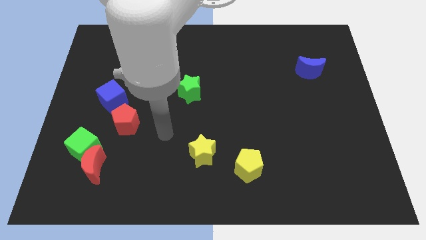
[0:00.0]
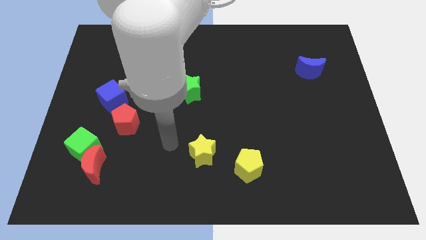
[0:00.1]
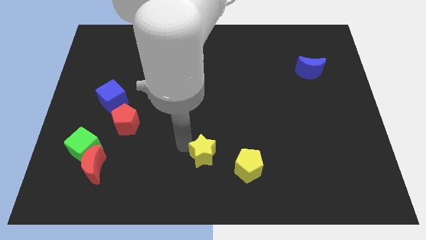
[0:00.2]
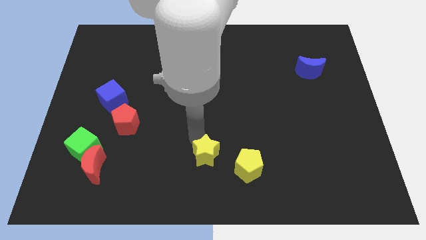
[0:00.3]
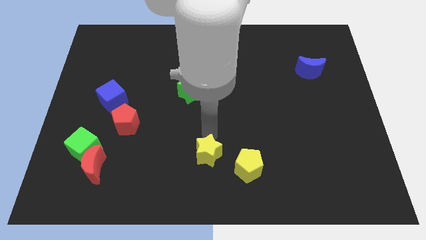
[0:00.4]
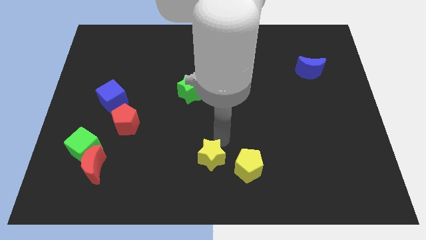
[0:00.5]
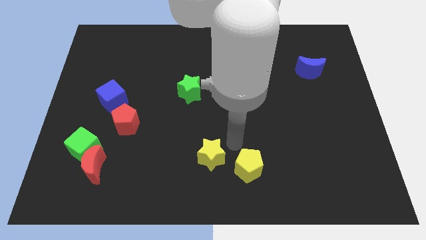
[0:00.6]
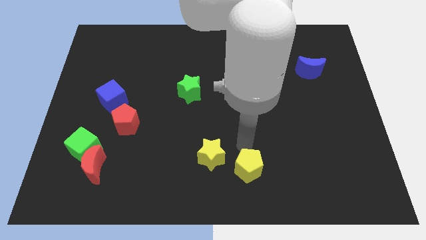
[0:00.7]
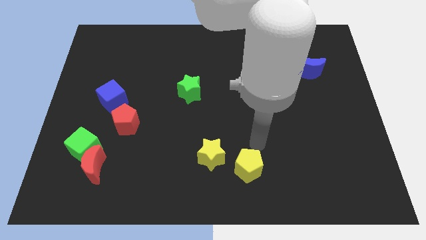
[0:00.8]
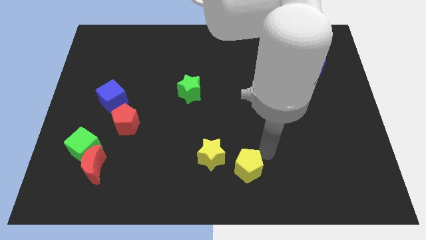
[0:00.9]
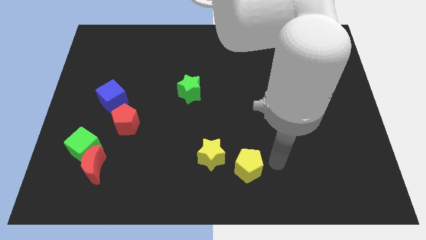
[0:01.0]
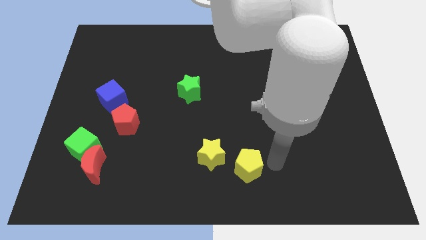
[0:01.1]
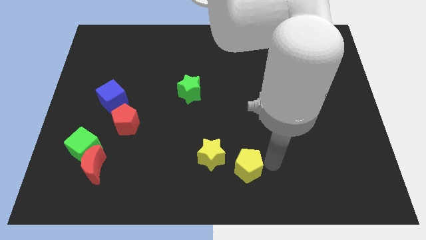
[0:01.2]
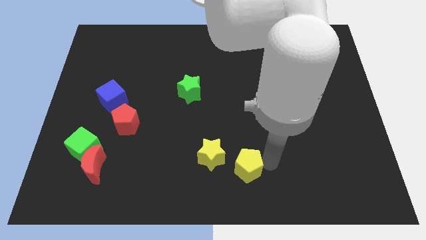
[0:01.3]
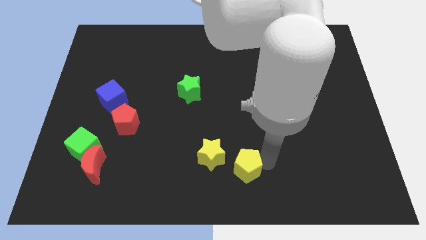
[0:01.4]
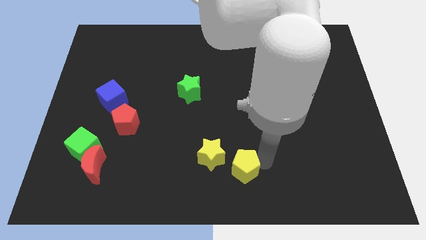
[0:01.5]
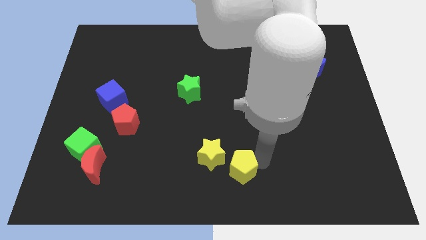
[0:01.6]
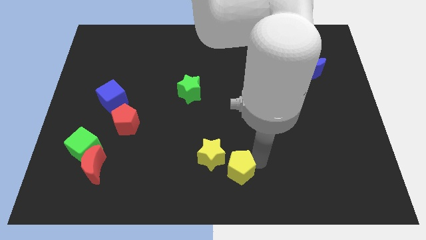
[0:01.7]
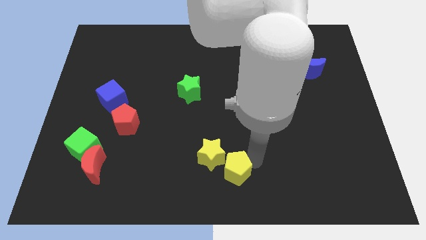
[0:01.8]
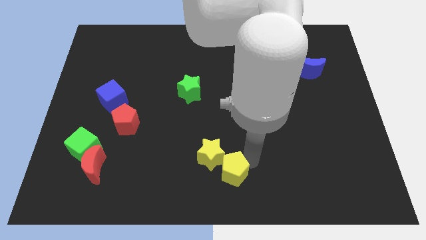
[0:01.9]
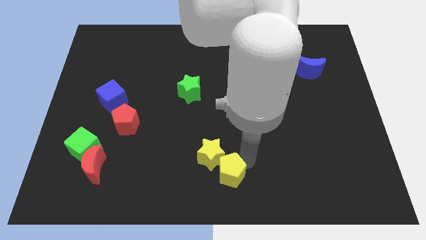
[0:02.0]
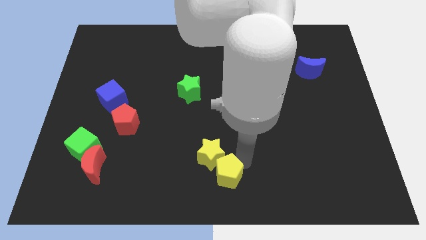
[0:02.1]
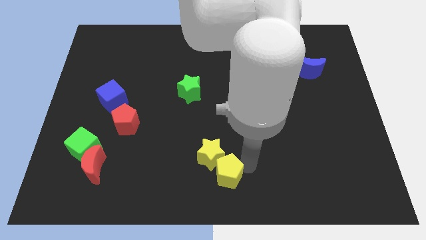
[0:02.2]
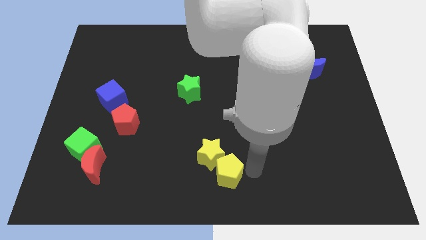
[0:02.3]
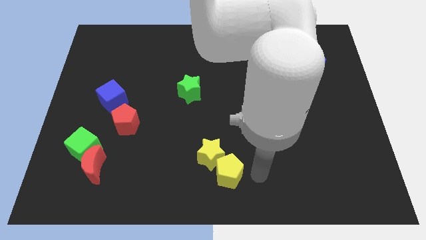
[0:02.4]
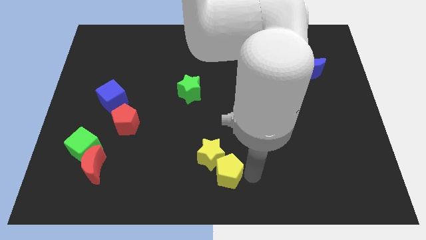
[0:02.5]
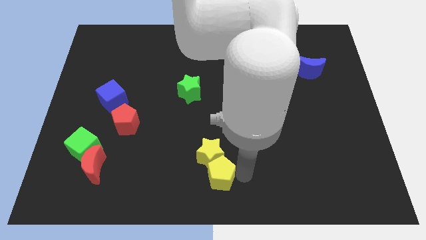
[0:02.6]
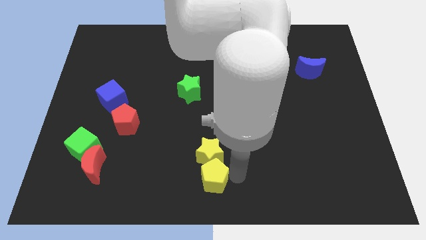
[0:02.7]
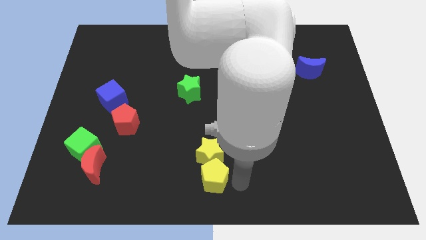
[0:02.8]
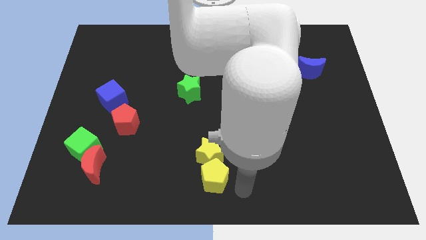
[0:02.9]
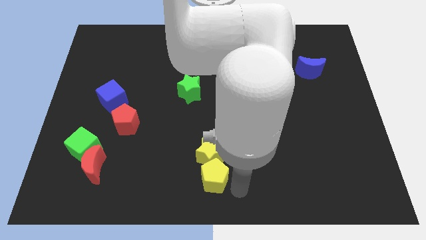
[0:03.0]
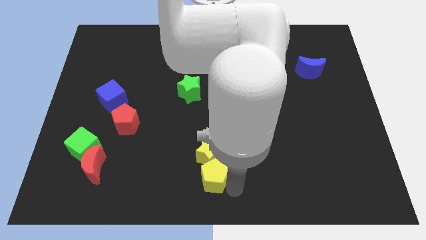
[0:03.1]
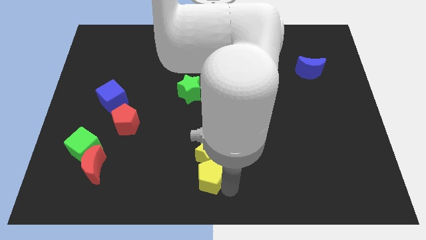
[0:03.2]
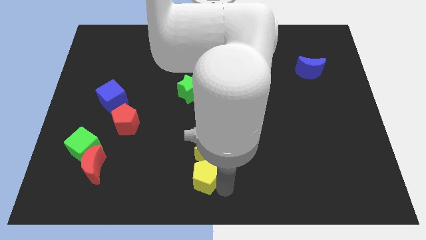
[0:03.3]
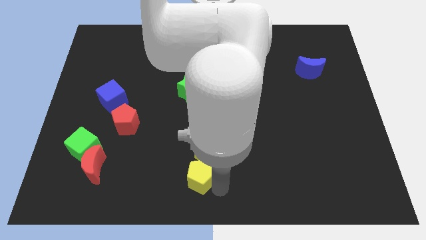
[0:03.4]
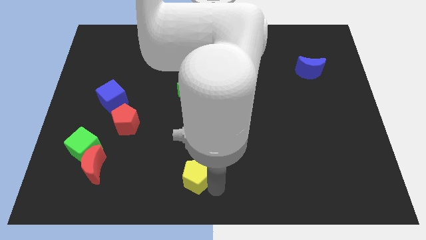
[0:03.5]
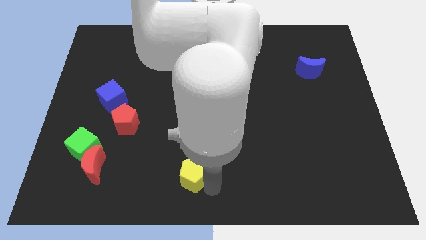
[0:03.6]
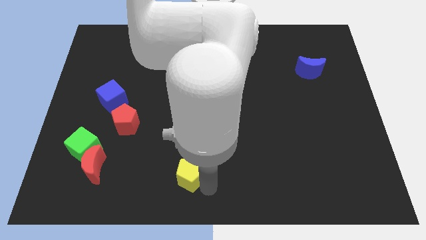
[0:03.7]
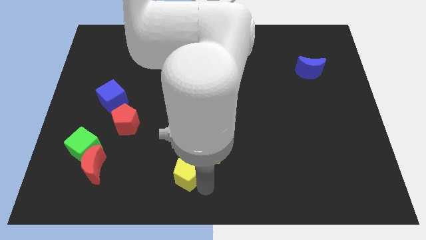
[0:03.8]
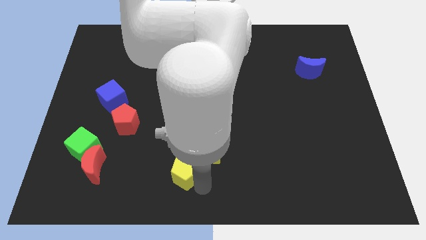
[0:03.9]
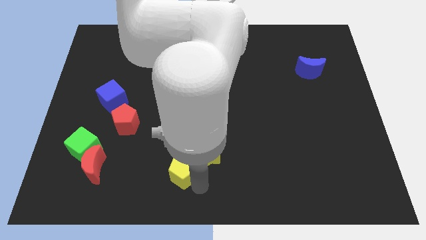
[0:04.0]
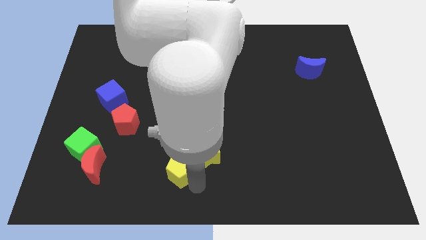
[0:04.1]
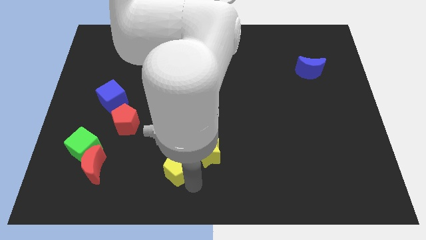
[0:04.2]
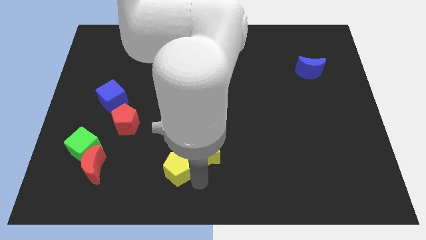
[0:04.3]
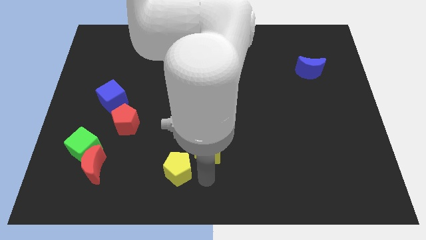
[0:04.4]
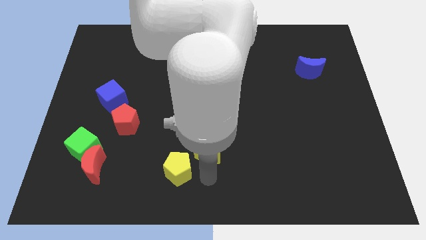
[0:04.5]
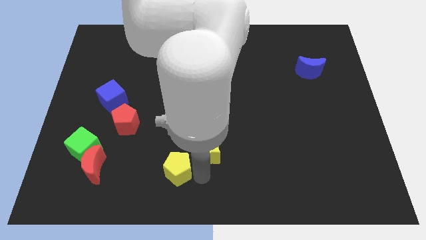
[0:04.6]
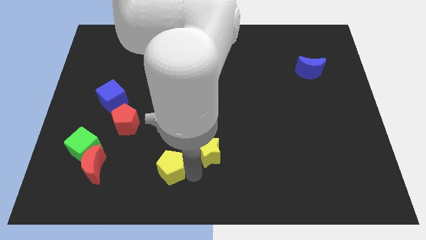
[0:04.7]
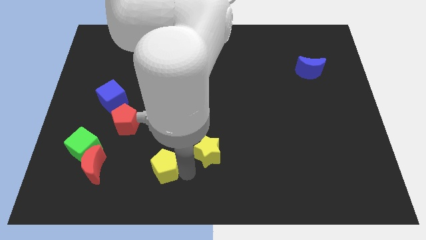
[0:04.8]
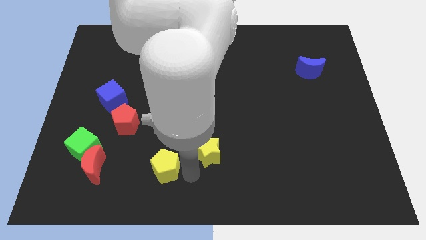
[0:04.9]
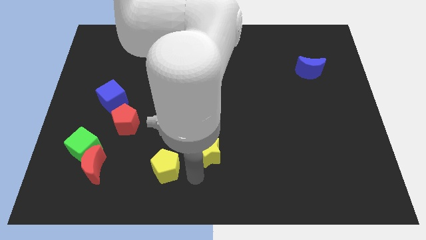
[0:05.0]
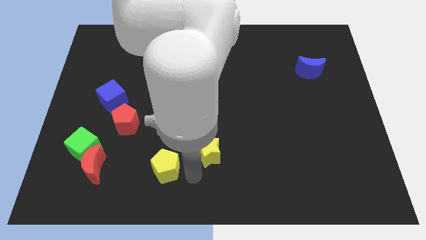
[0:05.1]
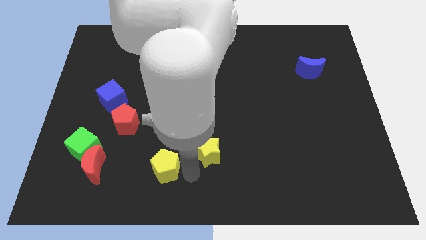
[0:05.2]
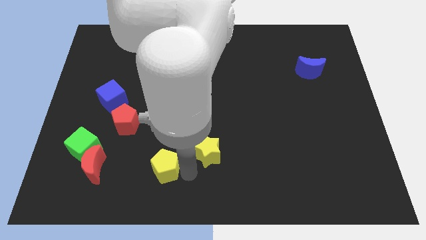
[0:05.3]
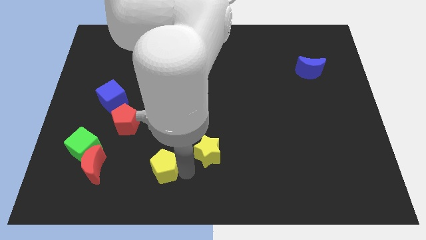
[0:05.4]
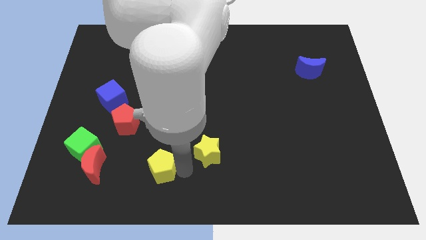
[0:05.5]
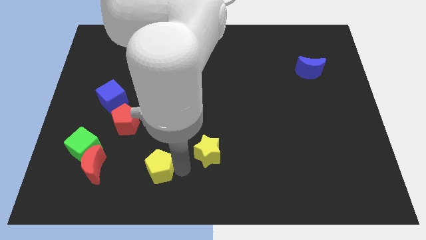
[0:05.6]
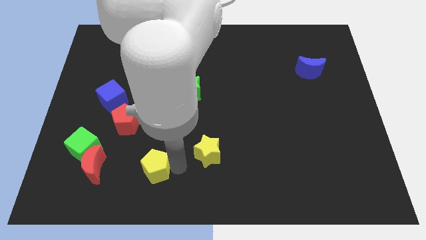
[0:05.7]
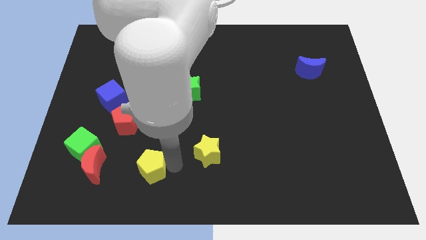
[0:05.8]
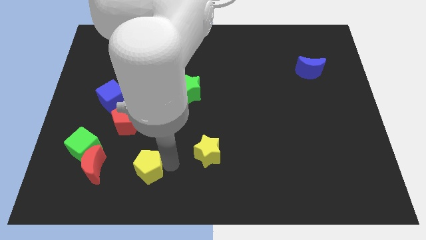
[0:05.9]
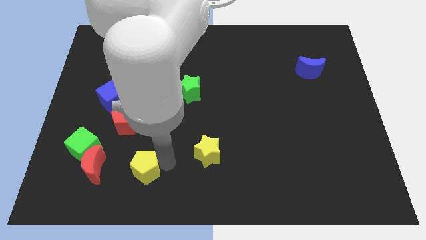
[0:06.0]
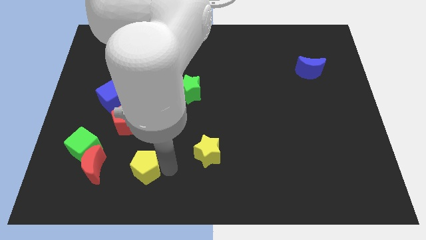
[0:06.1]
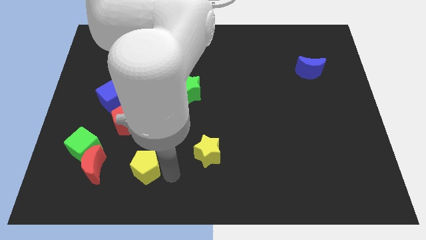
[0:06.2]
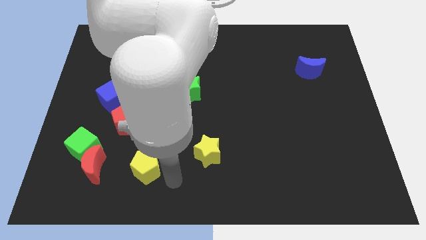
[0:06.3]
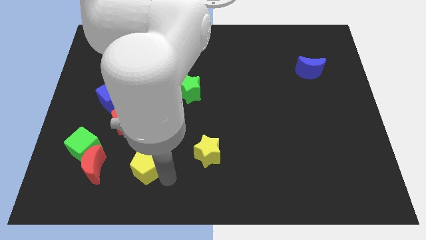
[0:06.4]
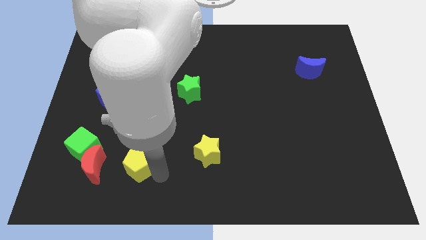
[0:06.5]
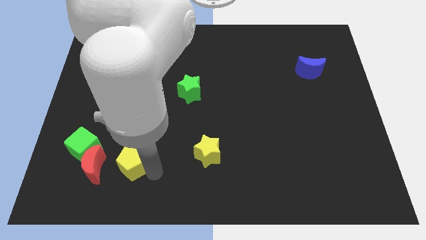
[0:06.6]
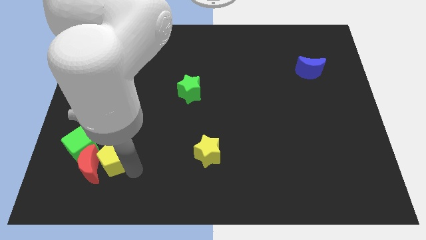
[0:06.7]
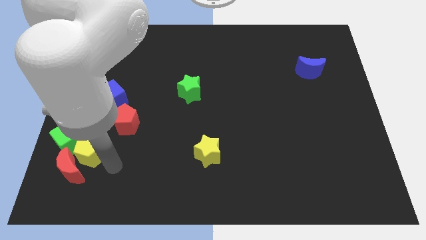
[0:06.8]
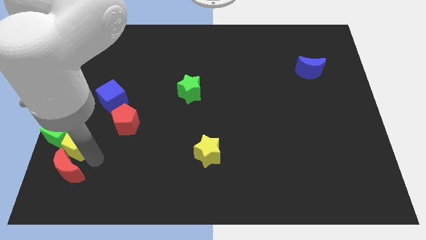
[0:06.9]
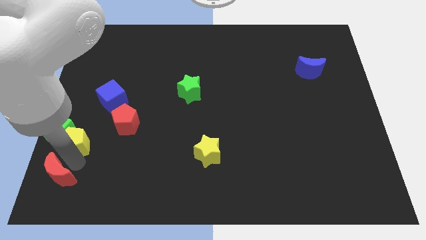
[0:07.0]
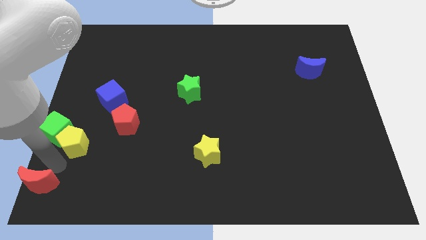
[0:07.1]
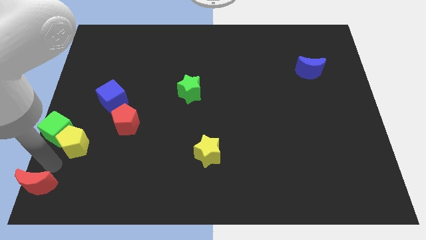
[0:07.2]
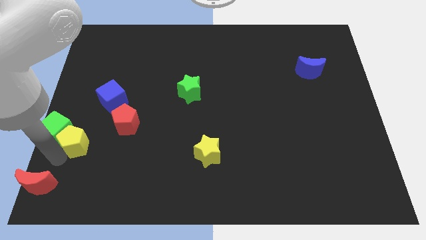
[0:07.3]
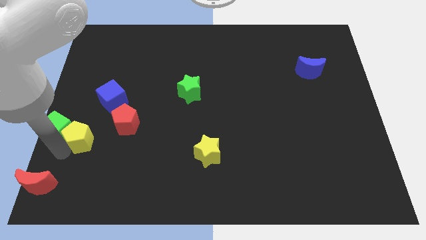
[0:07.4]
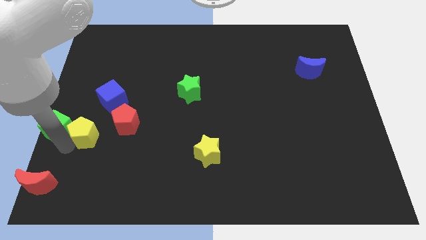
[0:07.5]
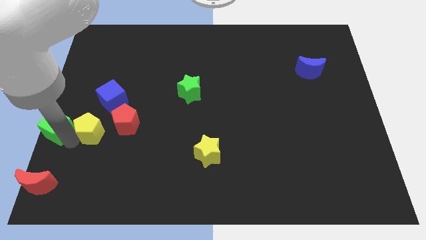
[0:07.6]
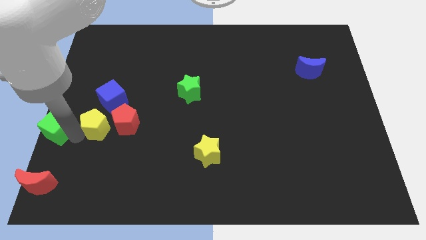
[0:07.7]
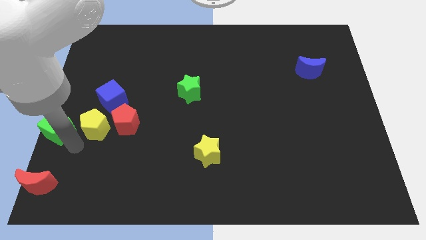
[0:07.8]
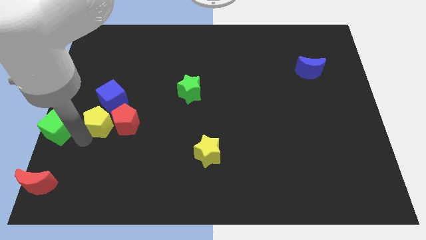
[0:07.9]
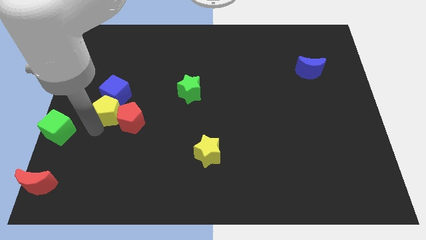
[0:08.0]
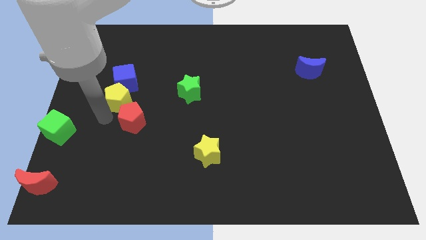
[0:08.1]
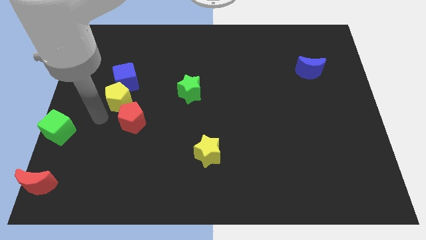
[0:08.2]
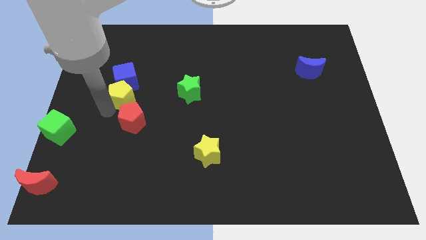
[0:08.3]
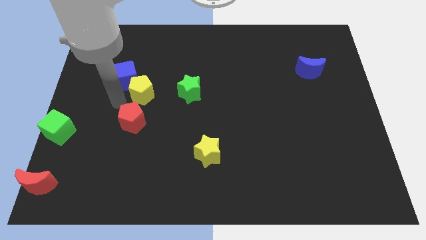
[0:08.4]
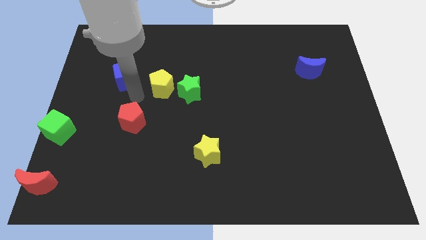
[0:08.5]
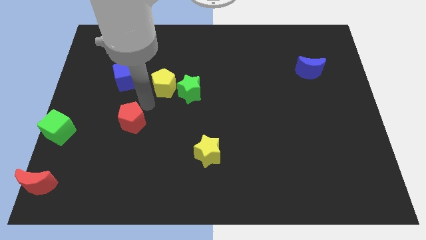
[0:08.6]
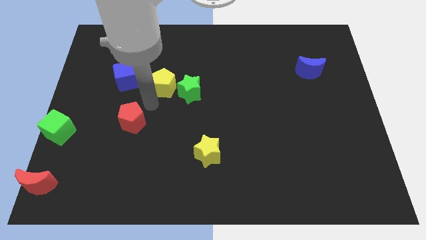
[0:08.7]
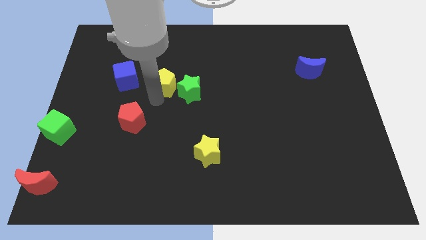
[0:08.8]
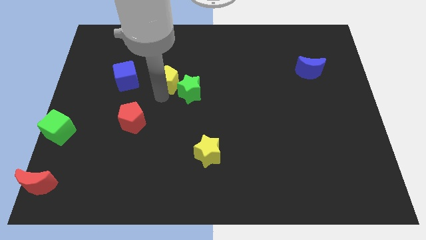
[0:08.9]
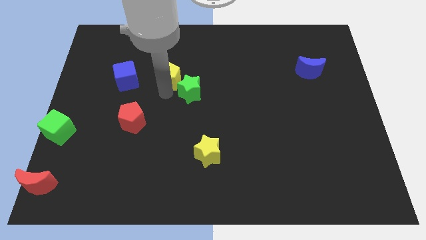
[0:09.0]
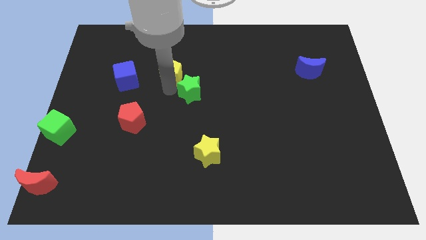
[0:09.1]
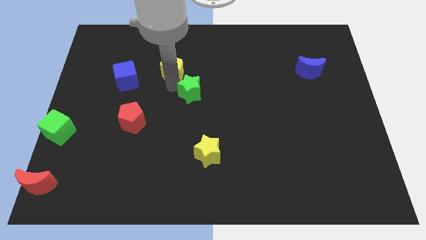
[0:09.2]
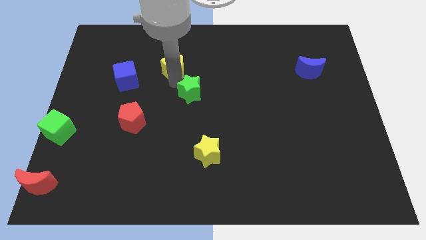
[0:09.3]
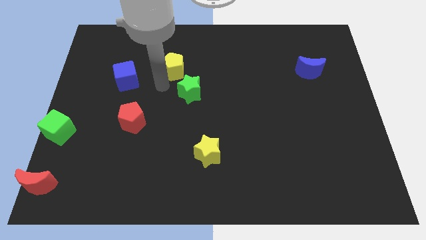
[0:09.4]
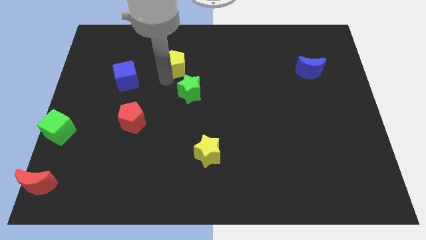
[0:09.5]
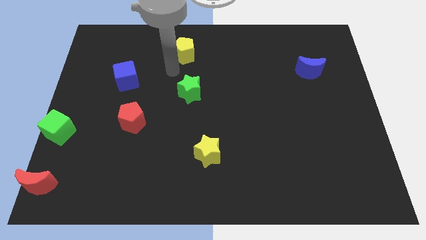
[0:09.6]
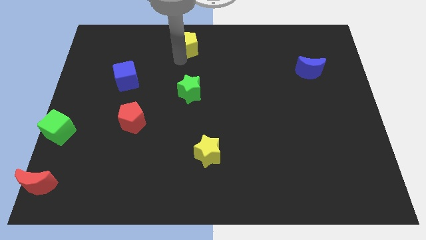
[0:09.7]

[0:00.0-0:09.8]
move the yellow pentagon to the top
